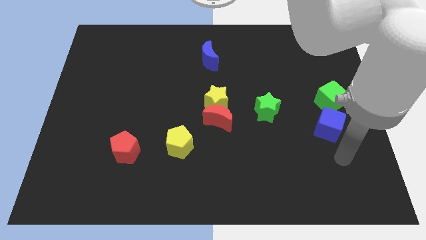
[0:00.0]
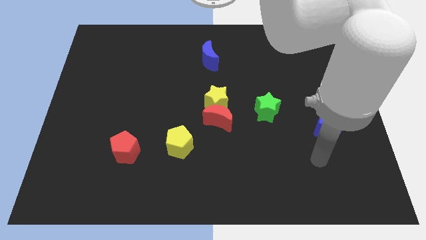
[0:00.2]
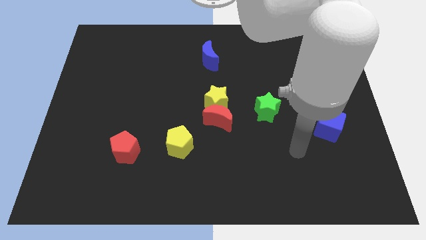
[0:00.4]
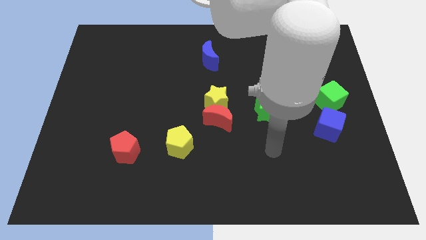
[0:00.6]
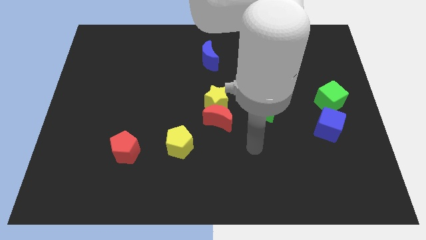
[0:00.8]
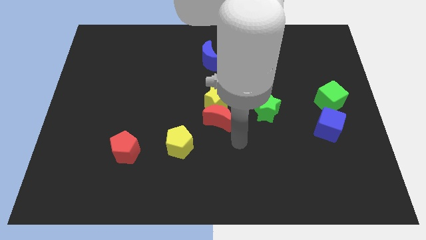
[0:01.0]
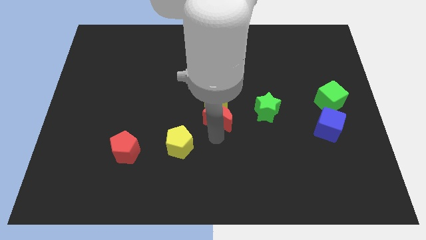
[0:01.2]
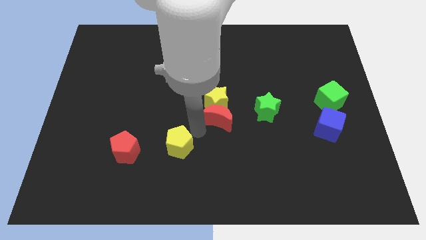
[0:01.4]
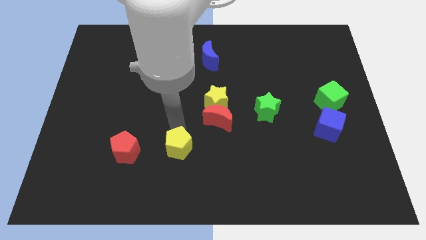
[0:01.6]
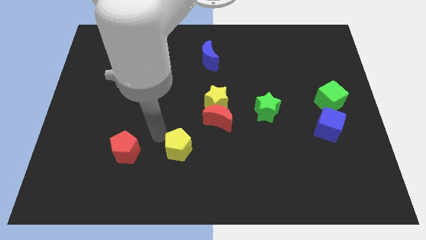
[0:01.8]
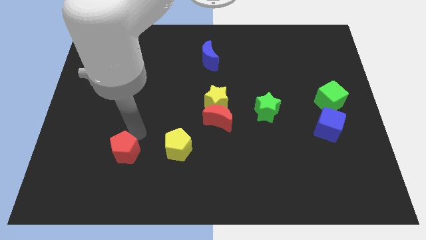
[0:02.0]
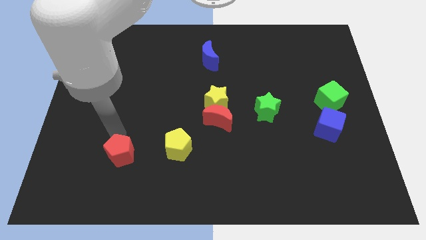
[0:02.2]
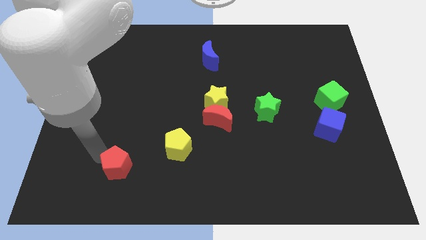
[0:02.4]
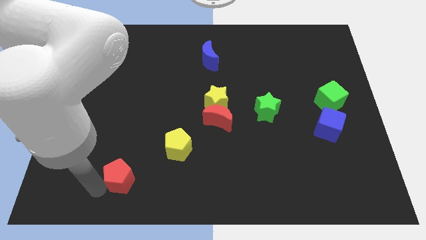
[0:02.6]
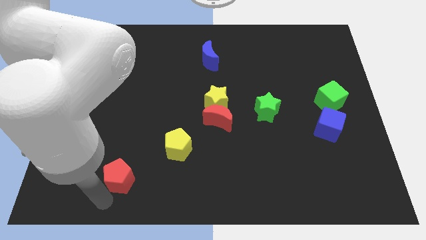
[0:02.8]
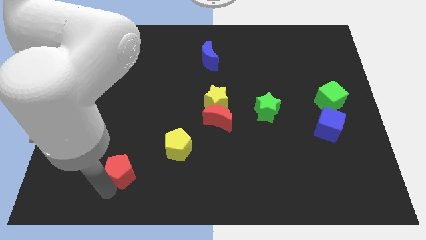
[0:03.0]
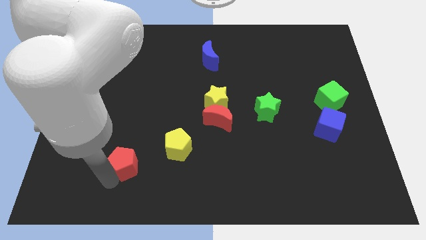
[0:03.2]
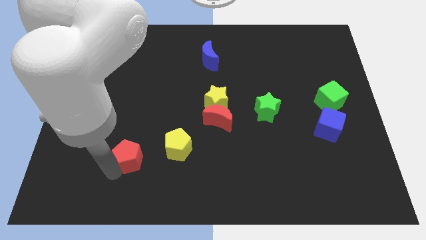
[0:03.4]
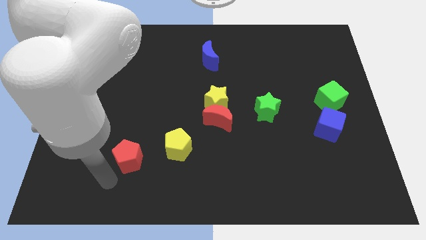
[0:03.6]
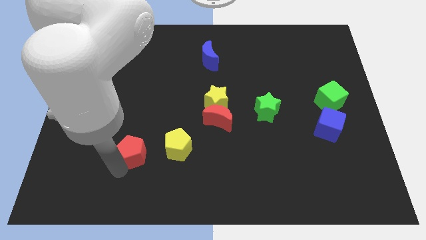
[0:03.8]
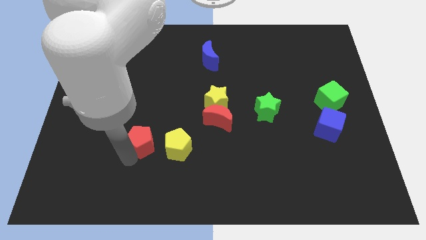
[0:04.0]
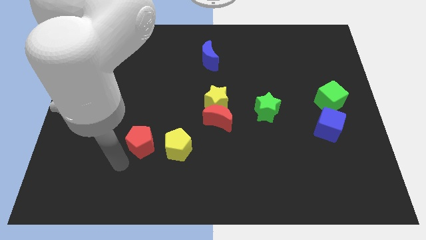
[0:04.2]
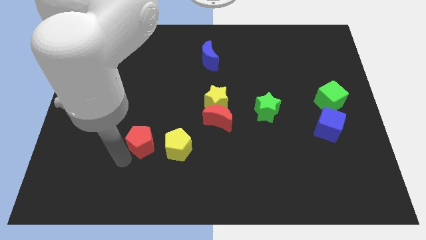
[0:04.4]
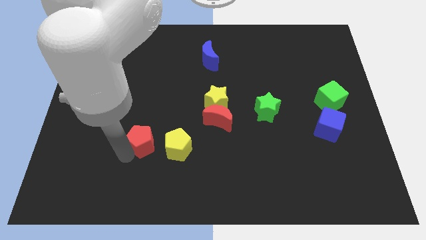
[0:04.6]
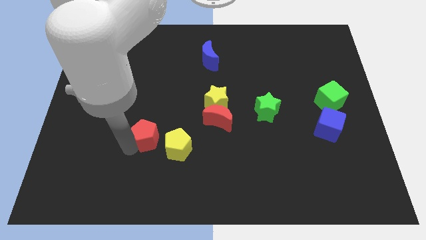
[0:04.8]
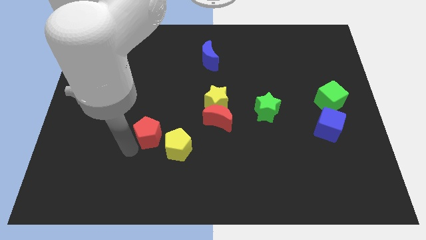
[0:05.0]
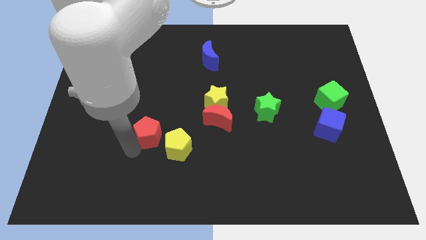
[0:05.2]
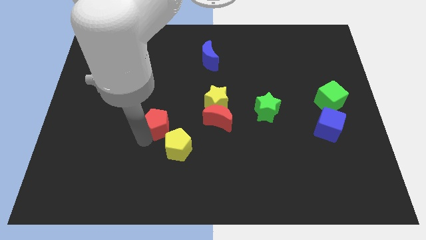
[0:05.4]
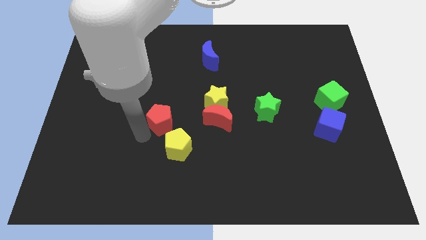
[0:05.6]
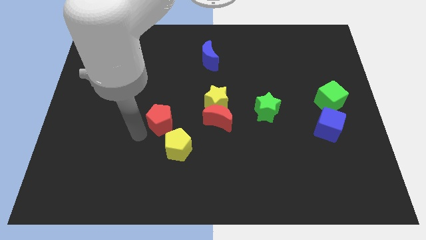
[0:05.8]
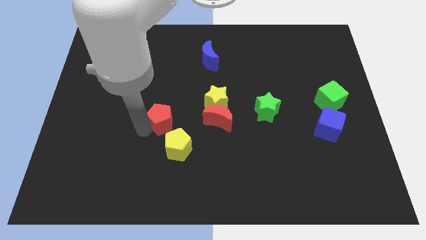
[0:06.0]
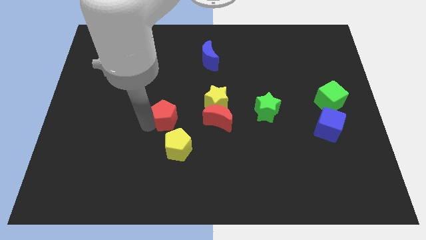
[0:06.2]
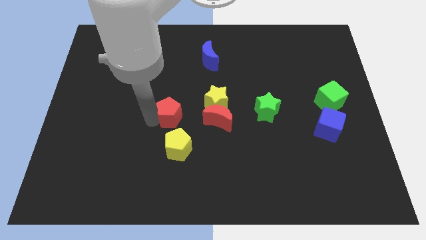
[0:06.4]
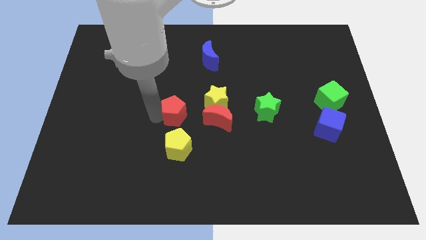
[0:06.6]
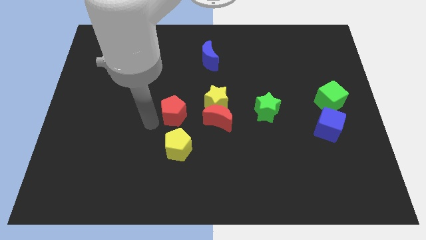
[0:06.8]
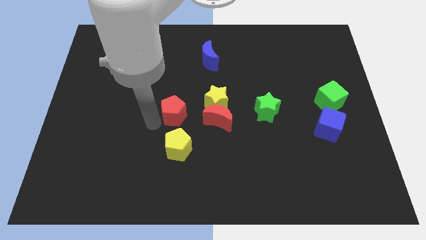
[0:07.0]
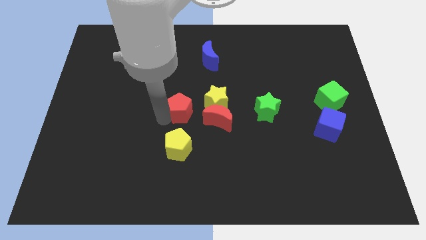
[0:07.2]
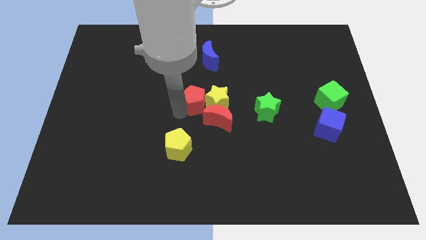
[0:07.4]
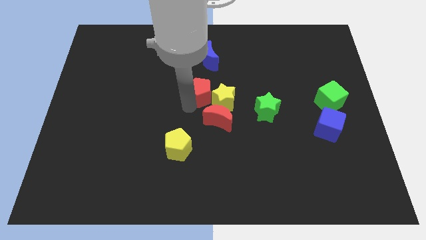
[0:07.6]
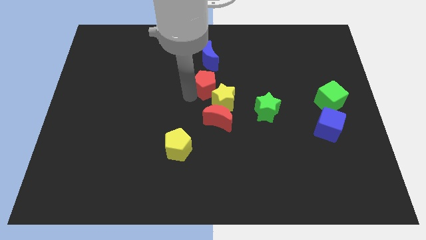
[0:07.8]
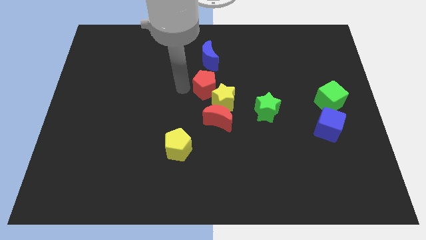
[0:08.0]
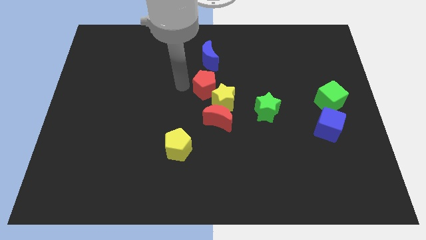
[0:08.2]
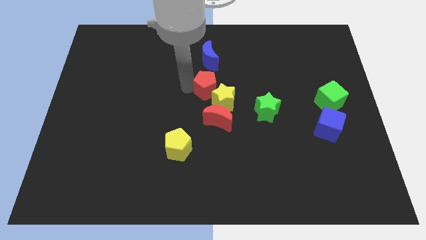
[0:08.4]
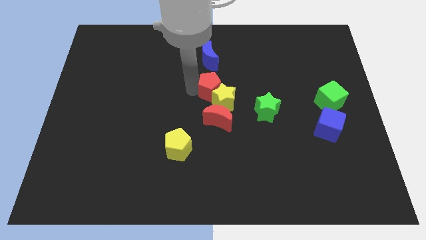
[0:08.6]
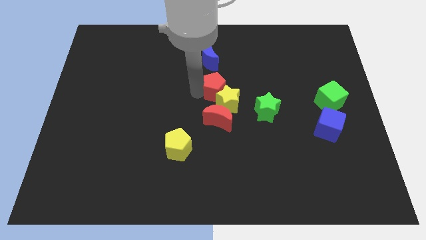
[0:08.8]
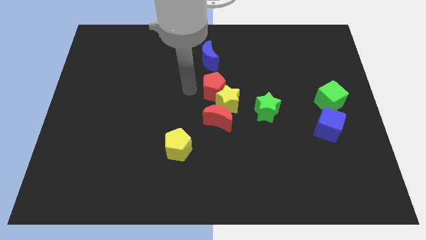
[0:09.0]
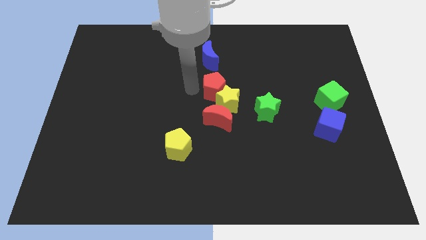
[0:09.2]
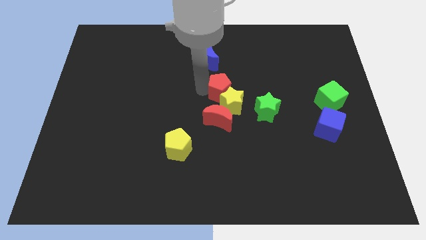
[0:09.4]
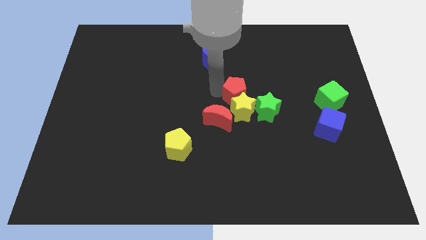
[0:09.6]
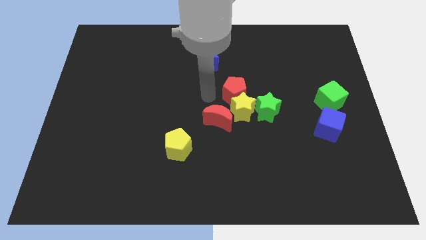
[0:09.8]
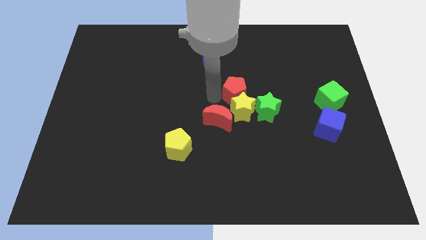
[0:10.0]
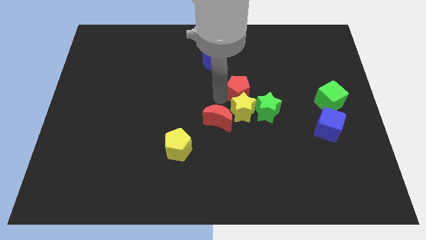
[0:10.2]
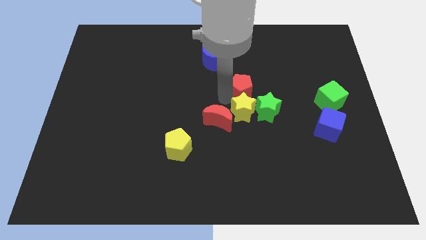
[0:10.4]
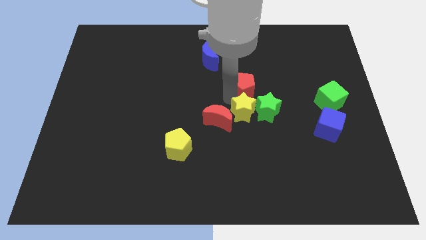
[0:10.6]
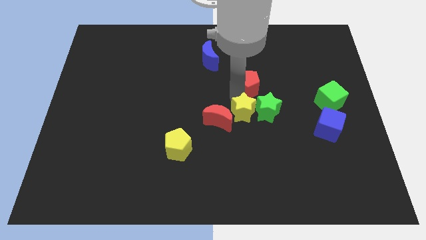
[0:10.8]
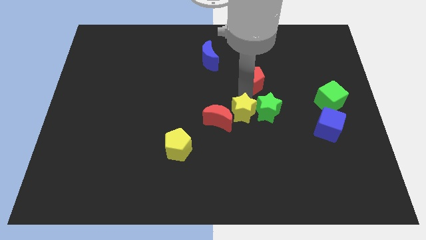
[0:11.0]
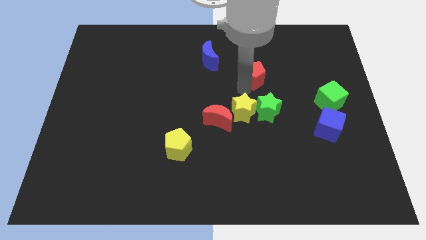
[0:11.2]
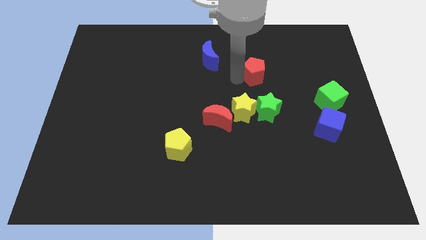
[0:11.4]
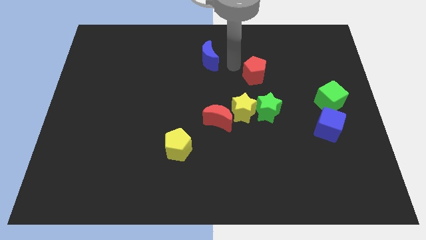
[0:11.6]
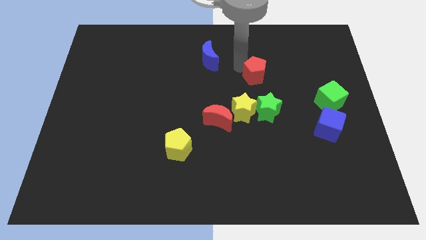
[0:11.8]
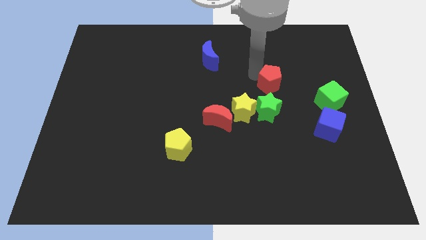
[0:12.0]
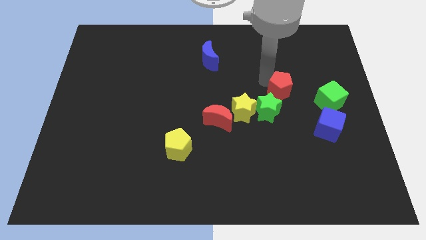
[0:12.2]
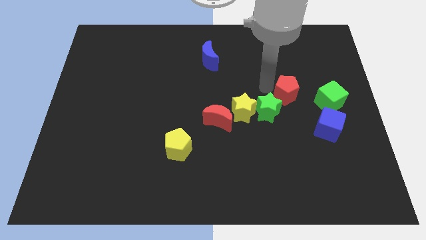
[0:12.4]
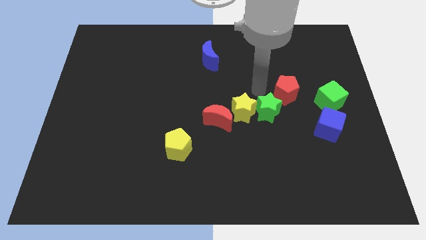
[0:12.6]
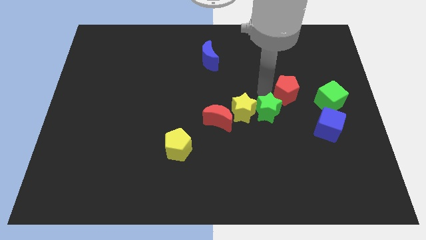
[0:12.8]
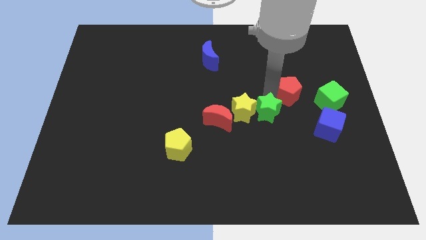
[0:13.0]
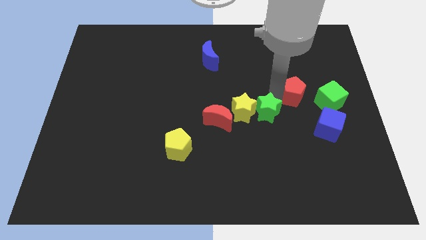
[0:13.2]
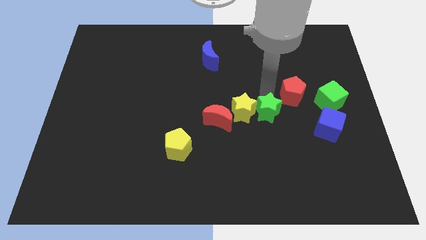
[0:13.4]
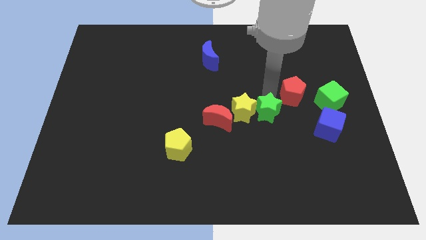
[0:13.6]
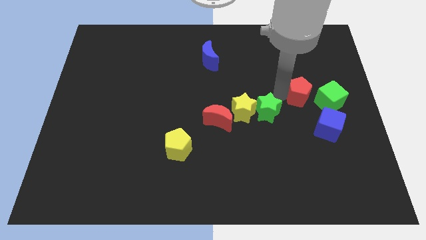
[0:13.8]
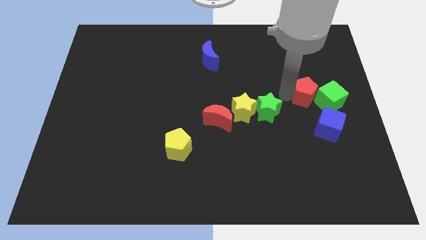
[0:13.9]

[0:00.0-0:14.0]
slide the red pentagon towards the green cube
